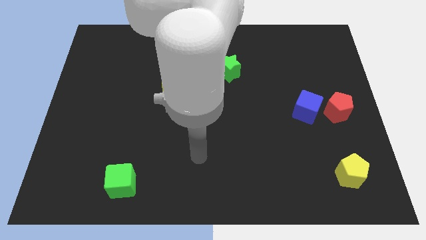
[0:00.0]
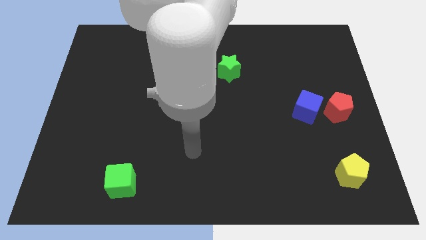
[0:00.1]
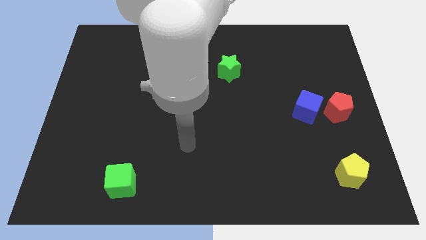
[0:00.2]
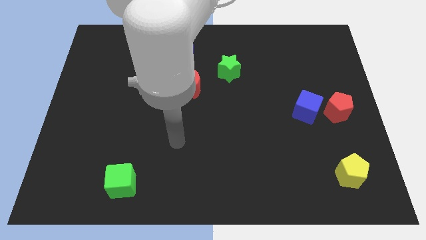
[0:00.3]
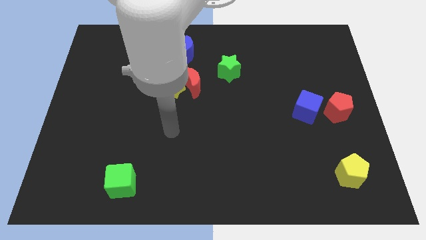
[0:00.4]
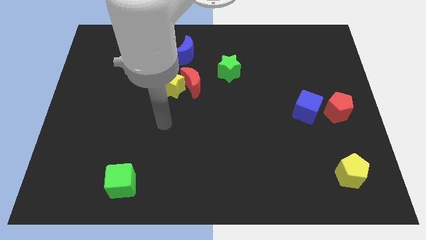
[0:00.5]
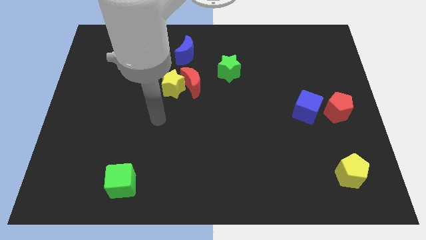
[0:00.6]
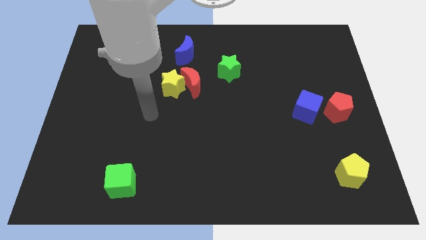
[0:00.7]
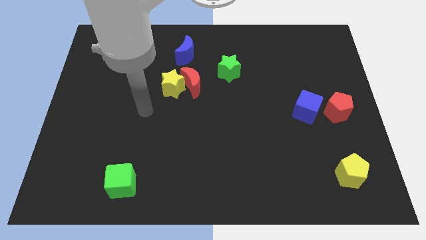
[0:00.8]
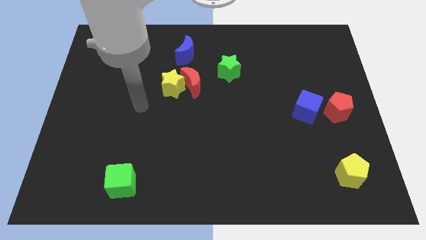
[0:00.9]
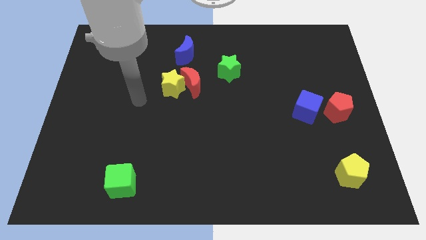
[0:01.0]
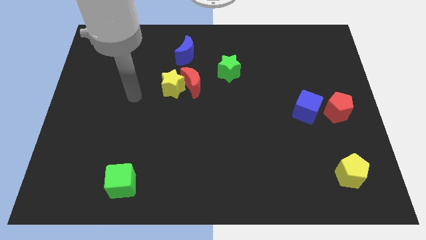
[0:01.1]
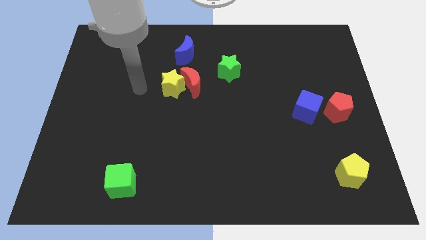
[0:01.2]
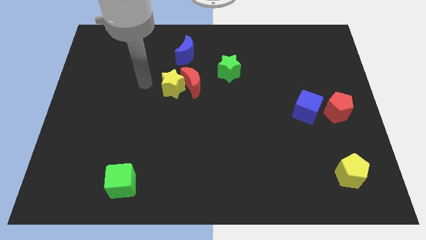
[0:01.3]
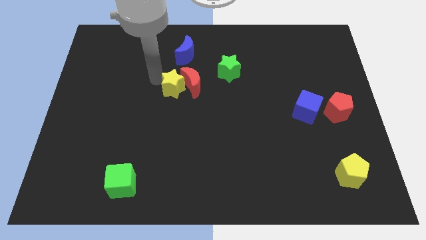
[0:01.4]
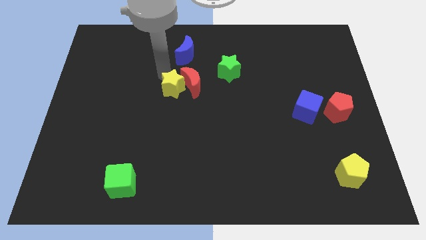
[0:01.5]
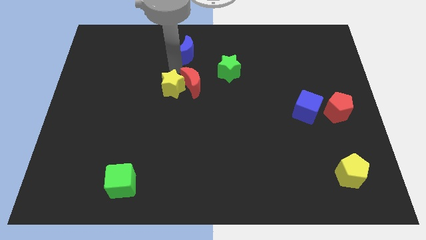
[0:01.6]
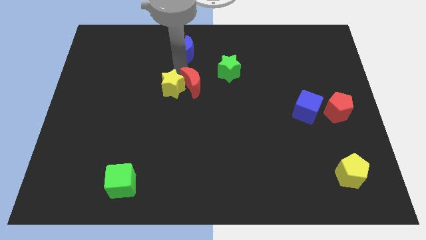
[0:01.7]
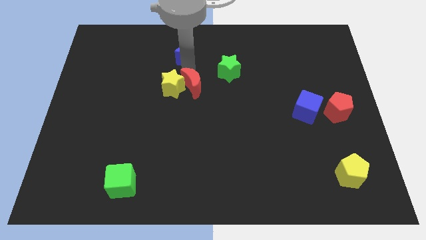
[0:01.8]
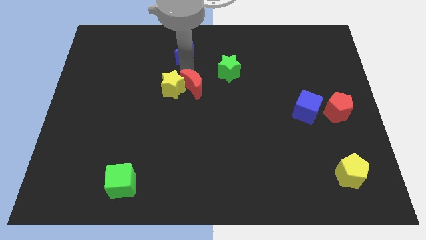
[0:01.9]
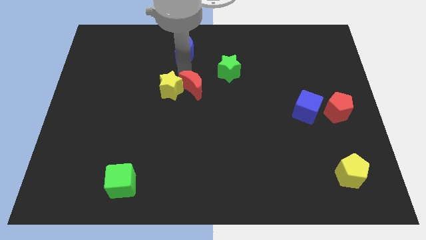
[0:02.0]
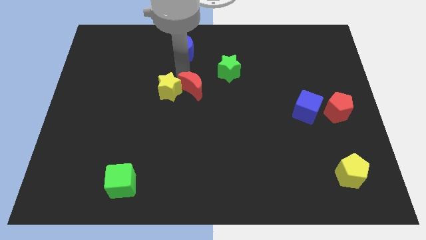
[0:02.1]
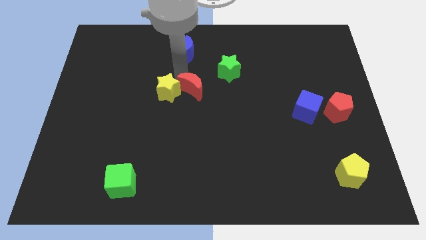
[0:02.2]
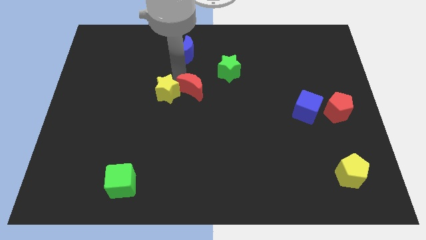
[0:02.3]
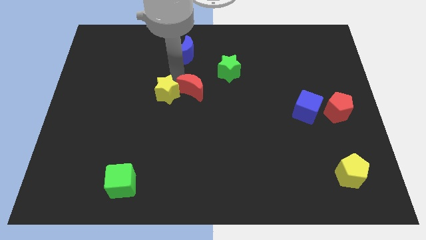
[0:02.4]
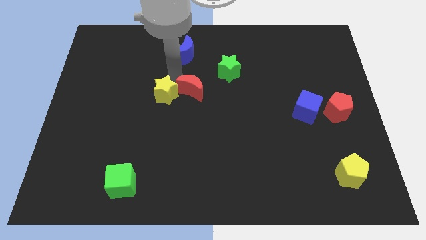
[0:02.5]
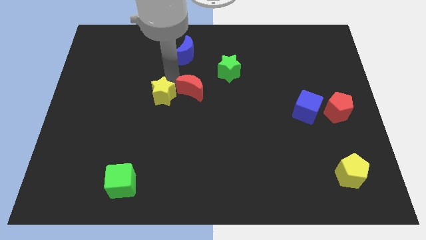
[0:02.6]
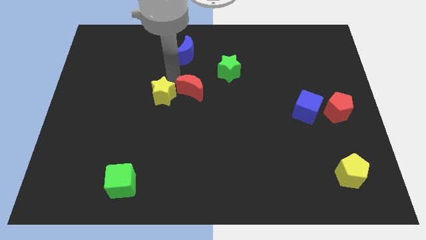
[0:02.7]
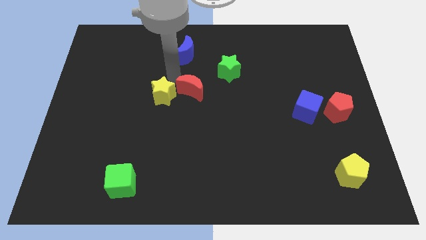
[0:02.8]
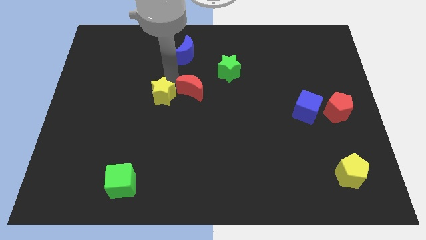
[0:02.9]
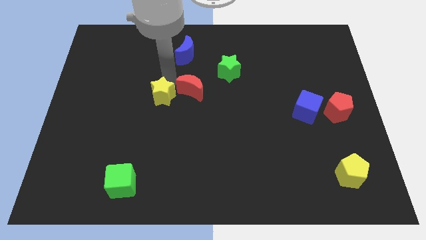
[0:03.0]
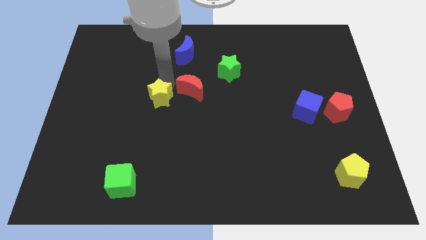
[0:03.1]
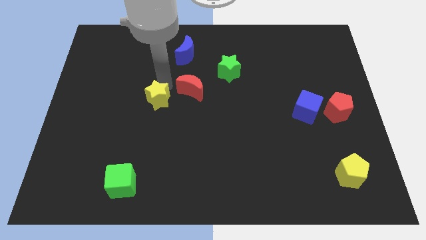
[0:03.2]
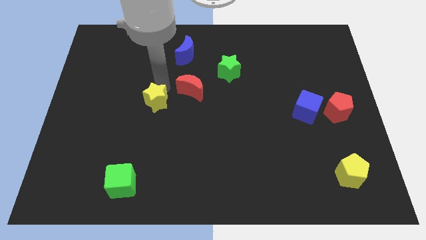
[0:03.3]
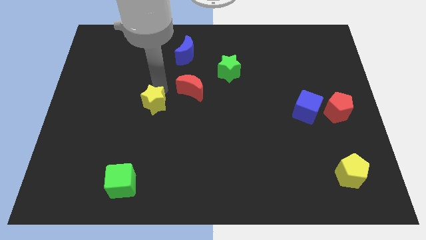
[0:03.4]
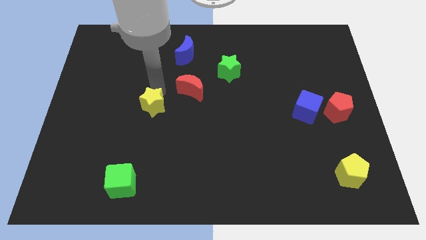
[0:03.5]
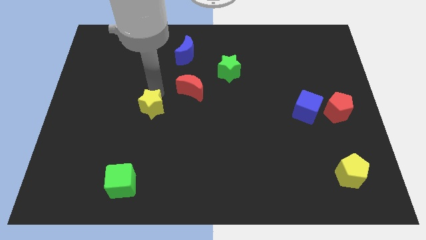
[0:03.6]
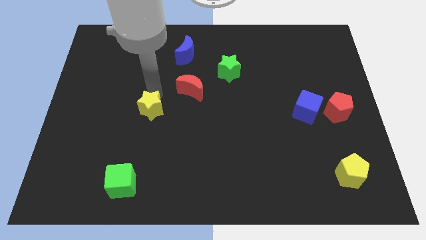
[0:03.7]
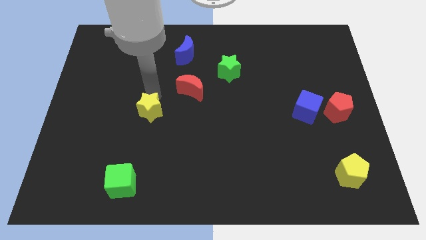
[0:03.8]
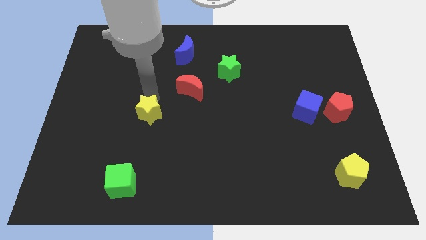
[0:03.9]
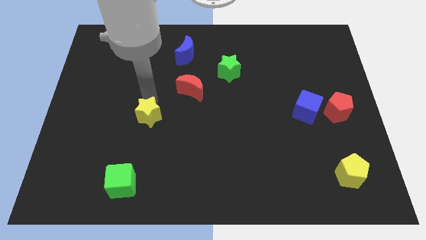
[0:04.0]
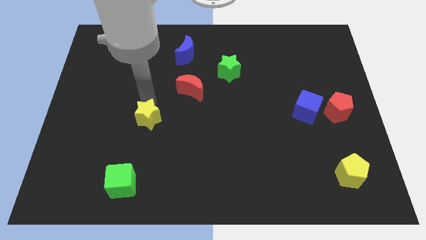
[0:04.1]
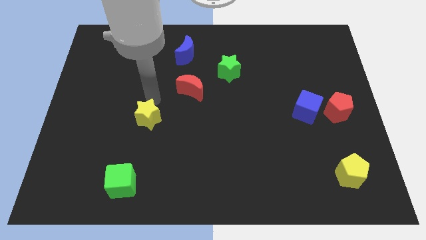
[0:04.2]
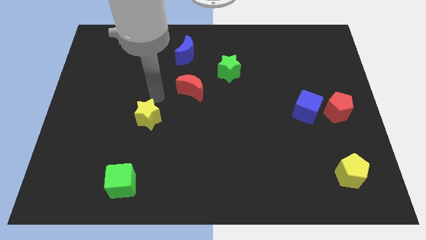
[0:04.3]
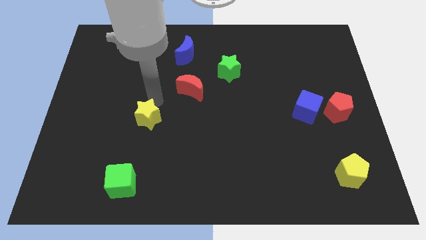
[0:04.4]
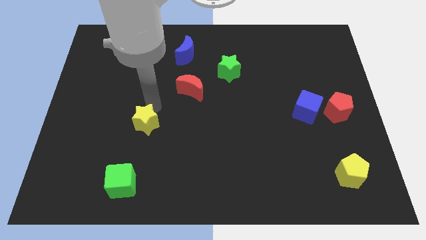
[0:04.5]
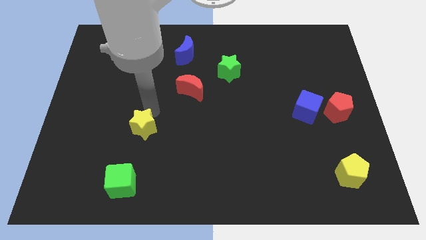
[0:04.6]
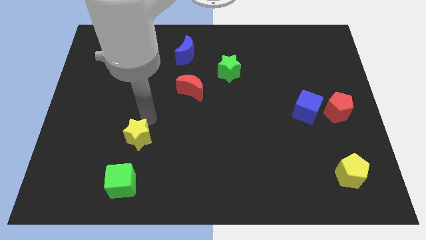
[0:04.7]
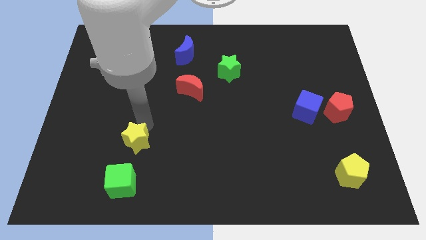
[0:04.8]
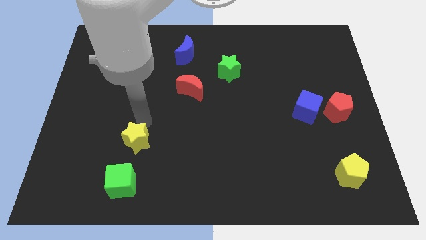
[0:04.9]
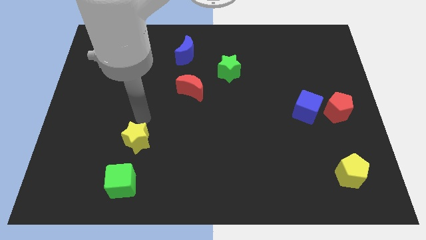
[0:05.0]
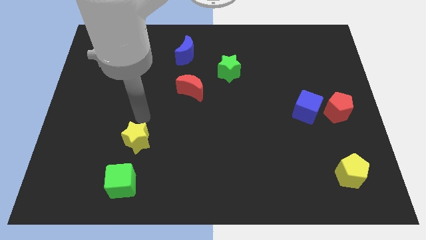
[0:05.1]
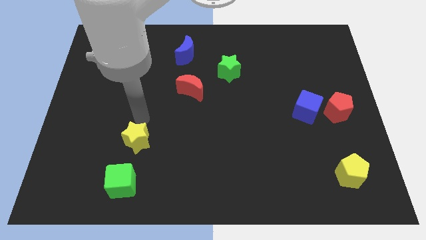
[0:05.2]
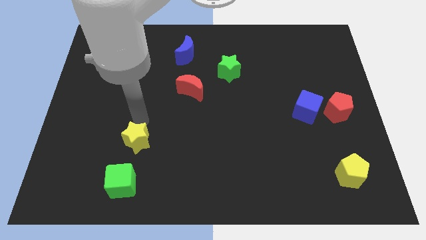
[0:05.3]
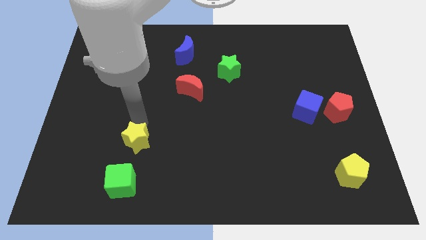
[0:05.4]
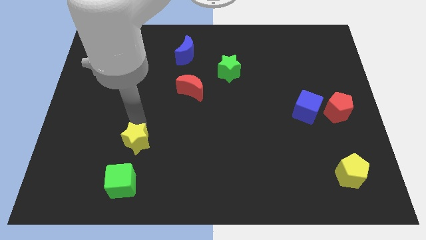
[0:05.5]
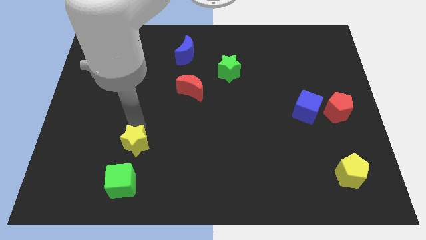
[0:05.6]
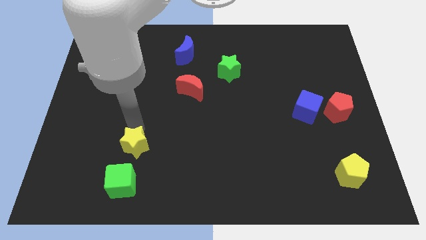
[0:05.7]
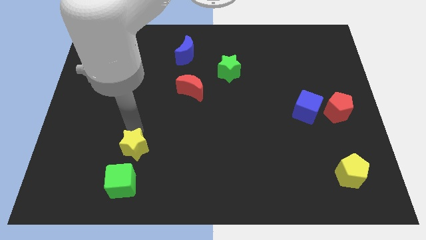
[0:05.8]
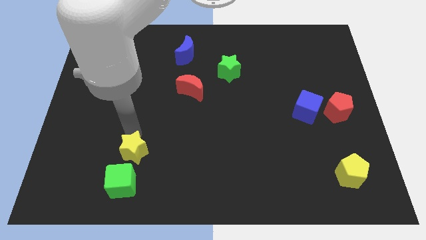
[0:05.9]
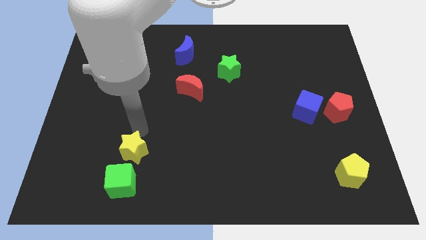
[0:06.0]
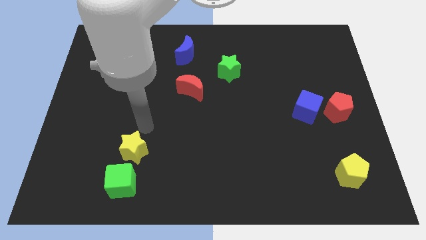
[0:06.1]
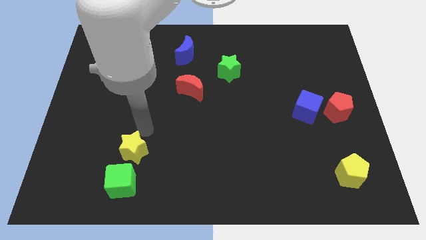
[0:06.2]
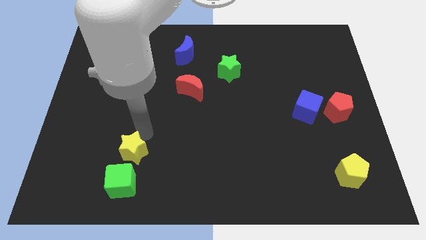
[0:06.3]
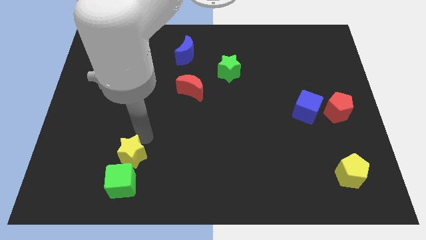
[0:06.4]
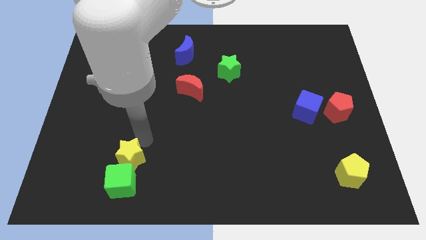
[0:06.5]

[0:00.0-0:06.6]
put the yellow star towards the green cube
